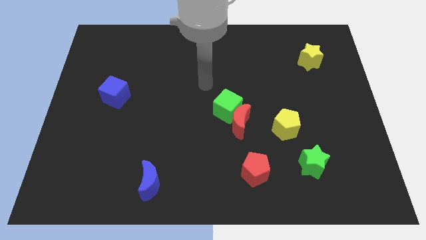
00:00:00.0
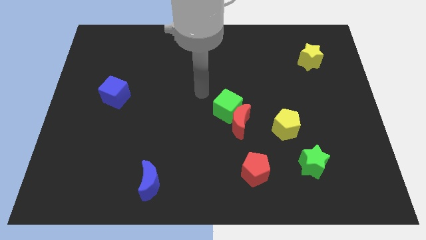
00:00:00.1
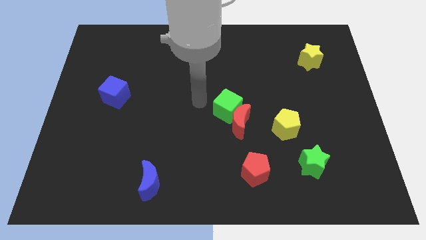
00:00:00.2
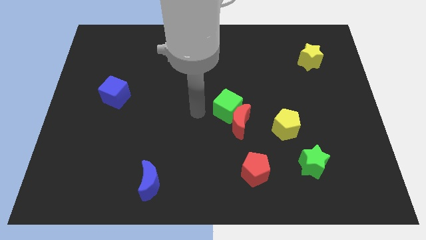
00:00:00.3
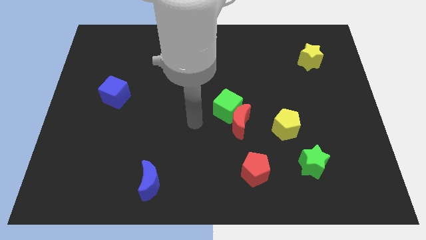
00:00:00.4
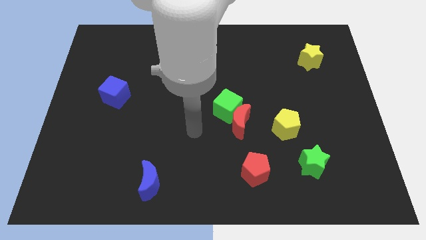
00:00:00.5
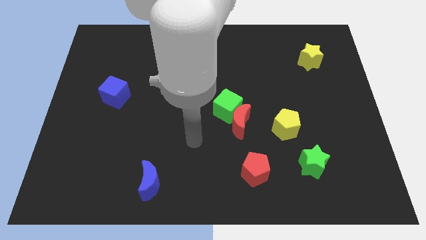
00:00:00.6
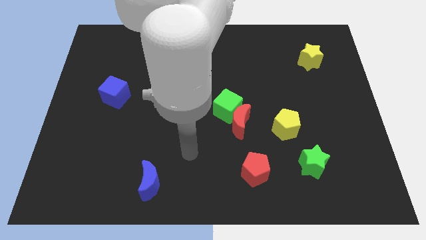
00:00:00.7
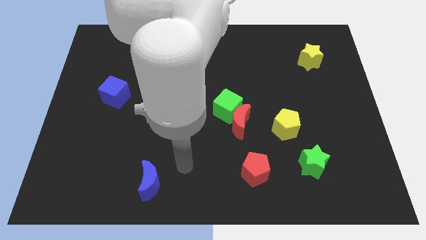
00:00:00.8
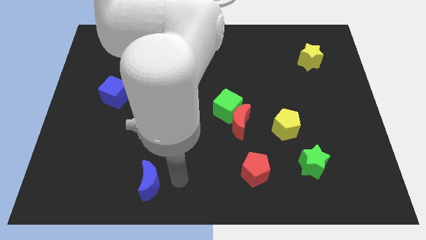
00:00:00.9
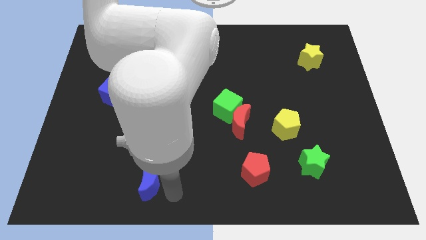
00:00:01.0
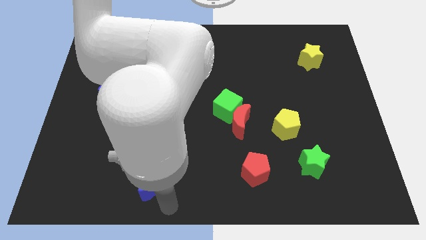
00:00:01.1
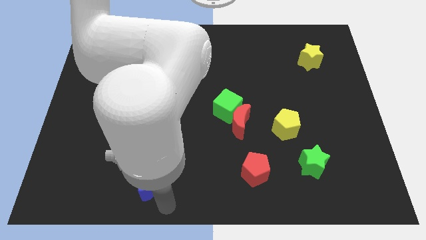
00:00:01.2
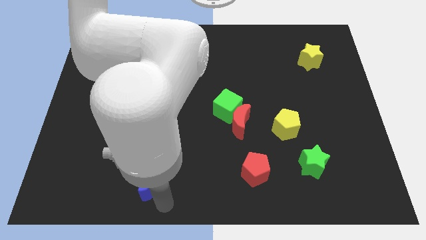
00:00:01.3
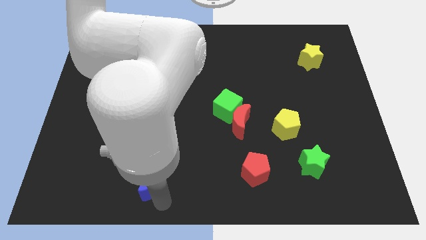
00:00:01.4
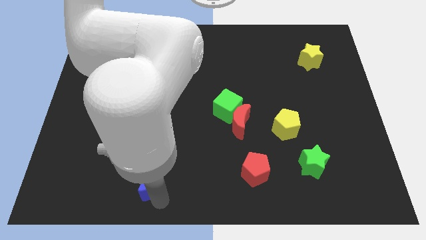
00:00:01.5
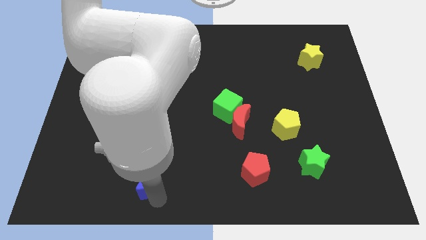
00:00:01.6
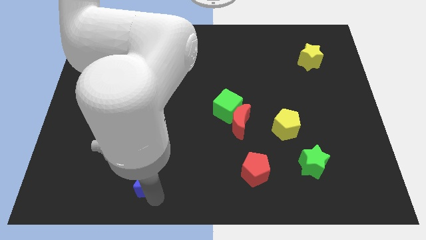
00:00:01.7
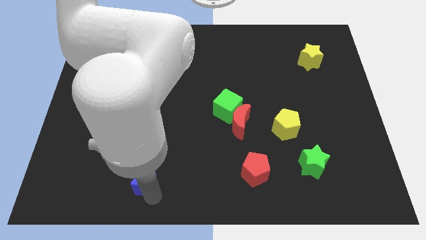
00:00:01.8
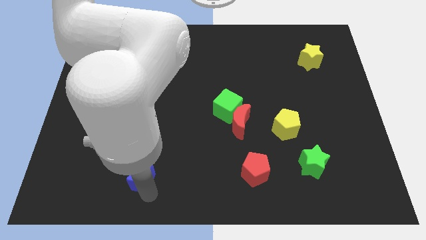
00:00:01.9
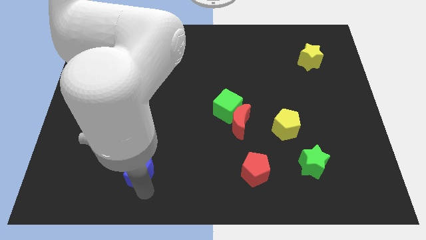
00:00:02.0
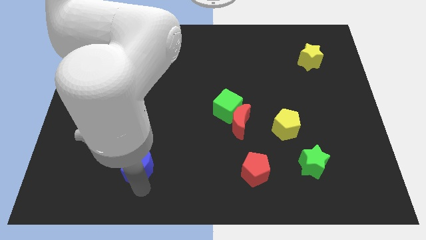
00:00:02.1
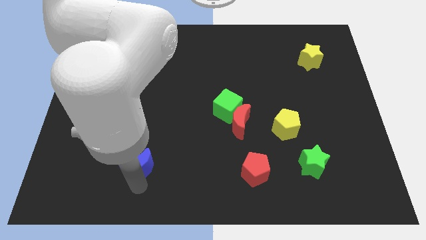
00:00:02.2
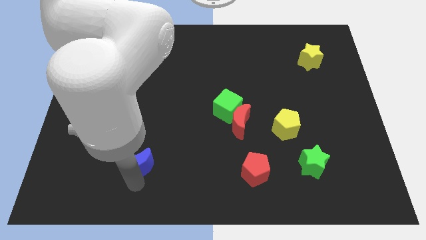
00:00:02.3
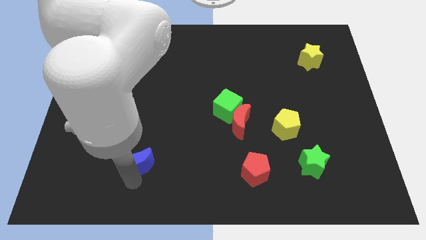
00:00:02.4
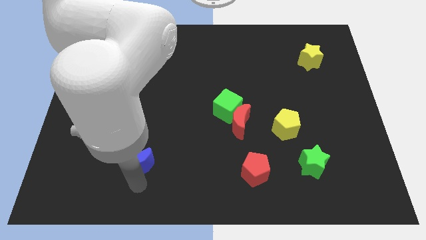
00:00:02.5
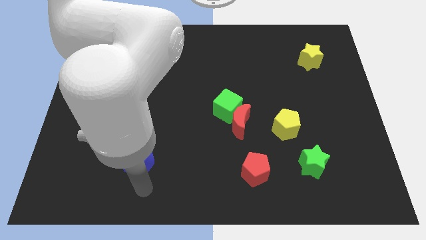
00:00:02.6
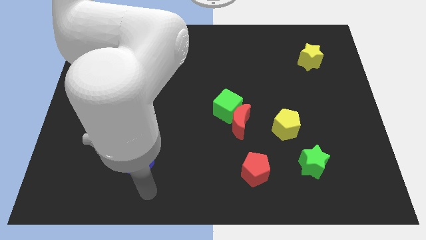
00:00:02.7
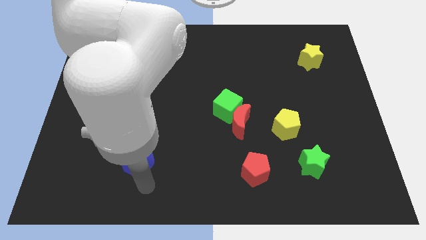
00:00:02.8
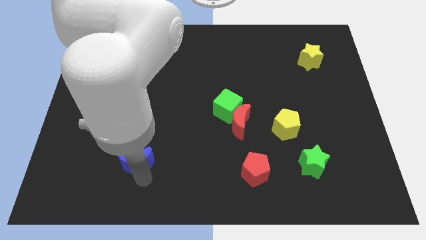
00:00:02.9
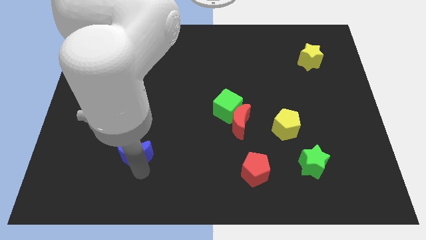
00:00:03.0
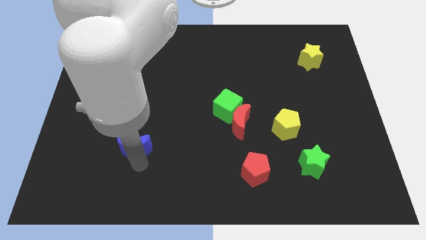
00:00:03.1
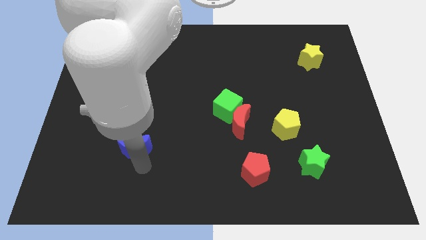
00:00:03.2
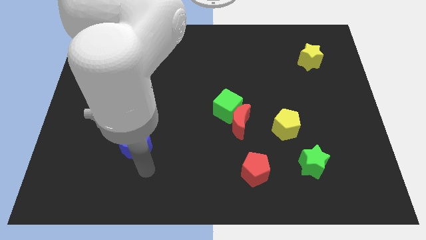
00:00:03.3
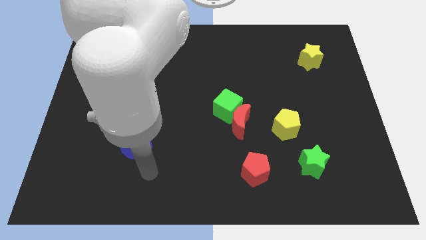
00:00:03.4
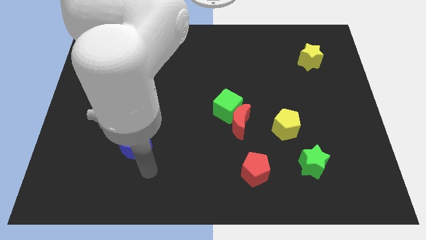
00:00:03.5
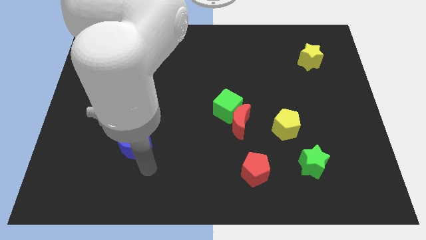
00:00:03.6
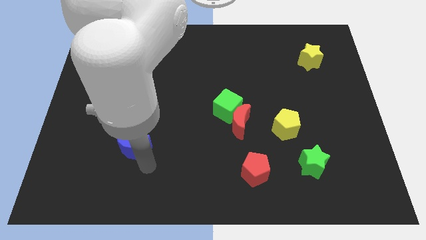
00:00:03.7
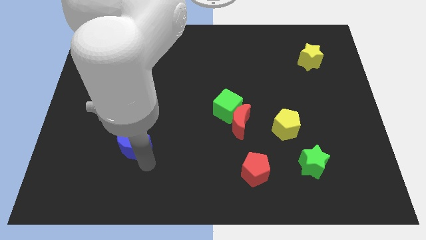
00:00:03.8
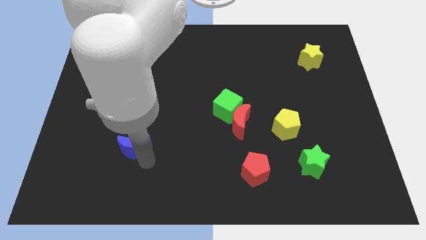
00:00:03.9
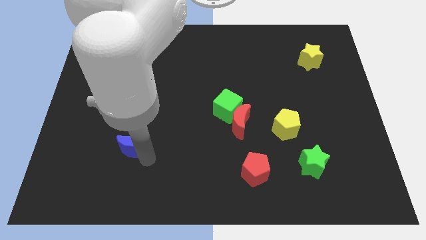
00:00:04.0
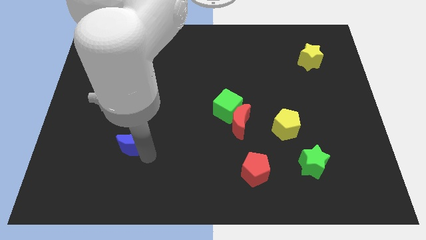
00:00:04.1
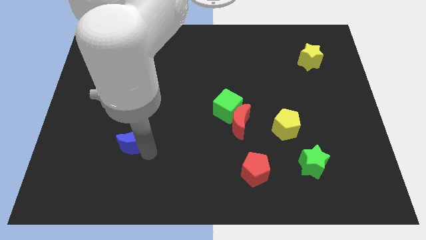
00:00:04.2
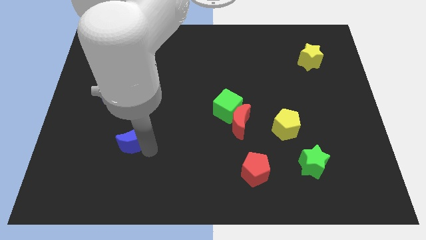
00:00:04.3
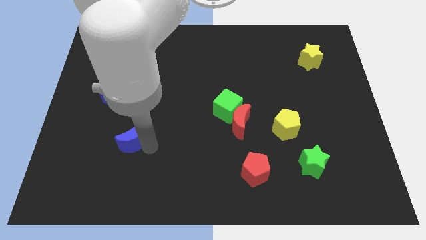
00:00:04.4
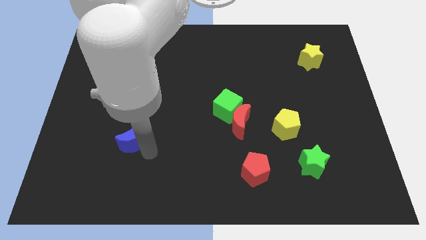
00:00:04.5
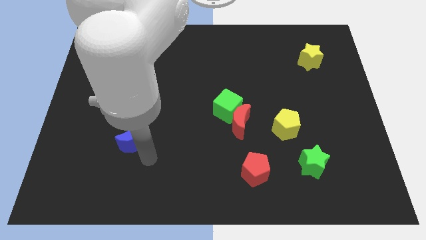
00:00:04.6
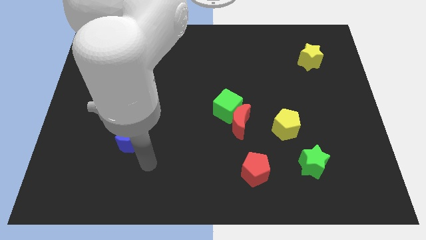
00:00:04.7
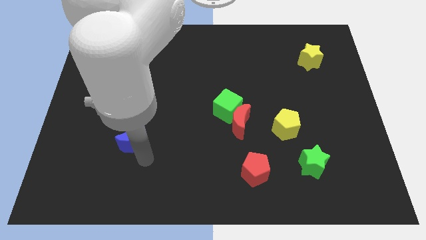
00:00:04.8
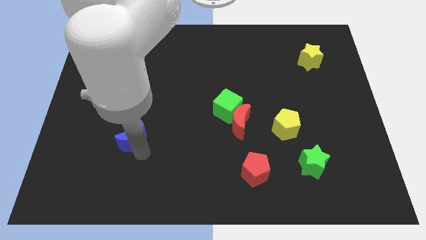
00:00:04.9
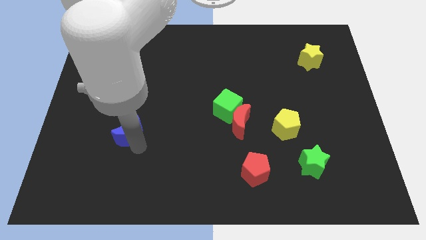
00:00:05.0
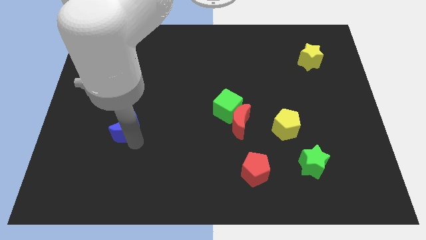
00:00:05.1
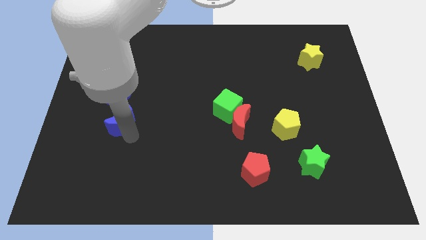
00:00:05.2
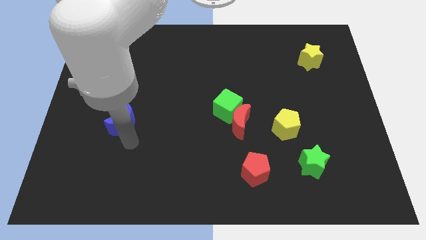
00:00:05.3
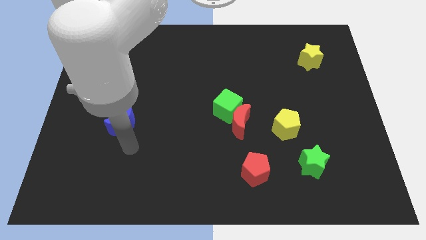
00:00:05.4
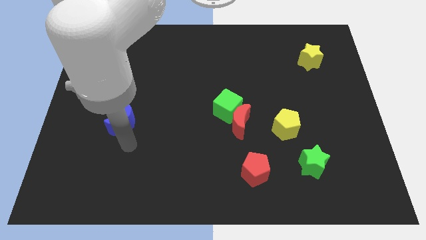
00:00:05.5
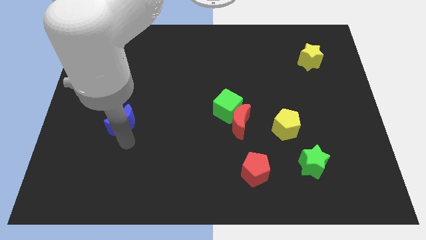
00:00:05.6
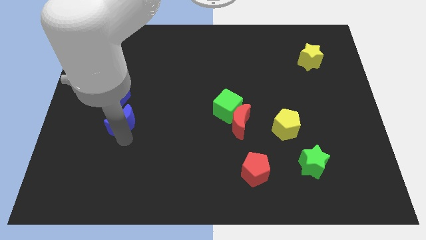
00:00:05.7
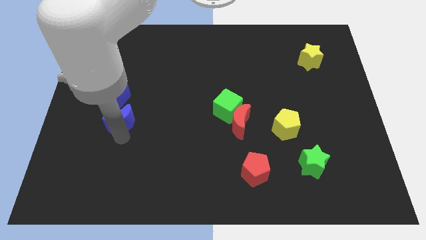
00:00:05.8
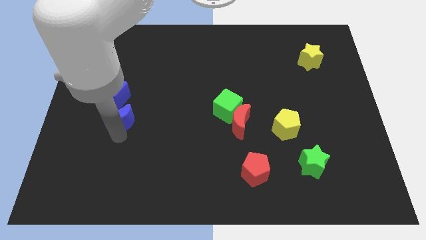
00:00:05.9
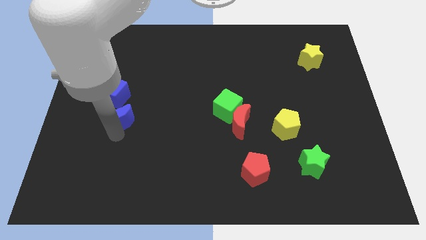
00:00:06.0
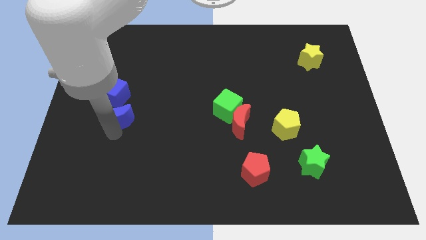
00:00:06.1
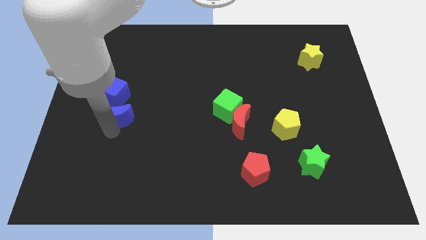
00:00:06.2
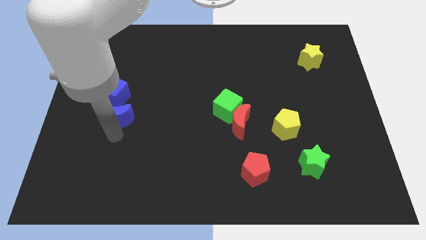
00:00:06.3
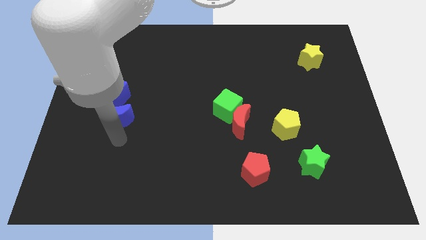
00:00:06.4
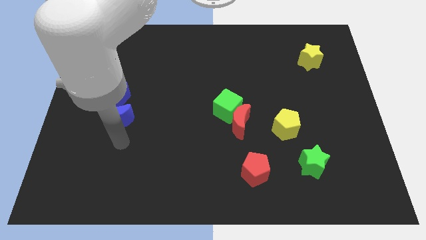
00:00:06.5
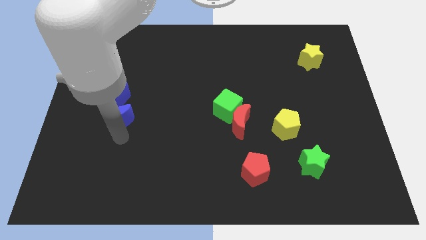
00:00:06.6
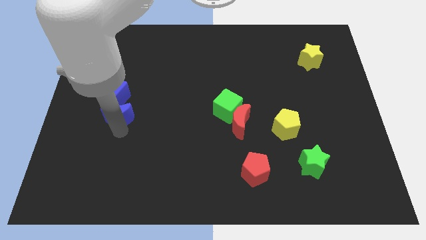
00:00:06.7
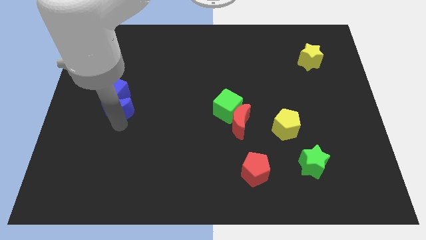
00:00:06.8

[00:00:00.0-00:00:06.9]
slide the blue moon towards the blue cube
